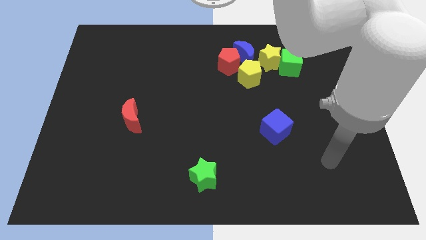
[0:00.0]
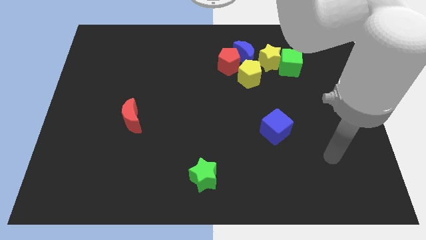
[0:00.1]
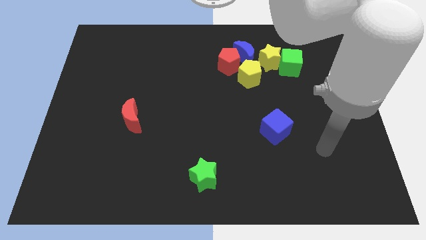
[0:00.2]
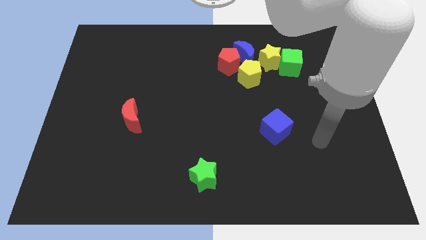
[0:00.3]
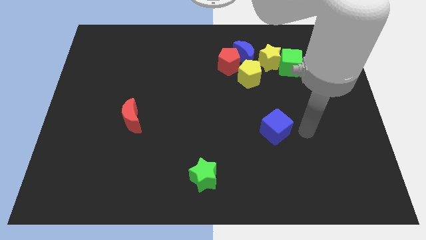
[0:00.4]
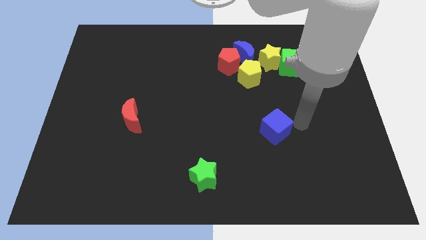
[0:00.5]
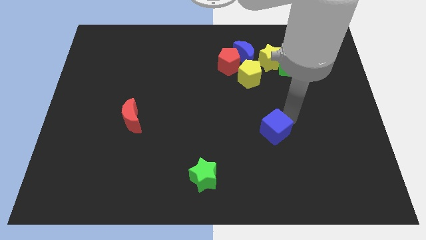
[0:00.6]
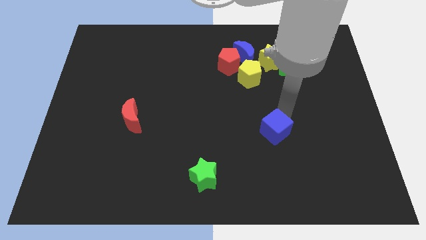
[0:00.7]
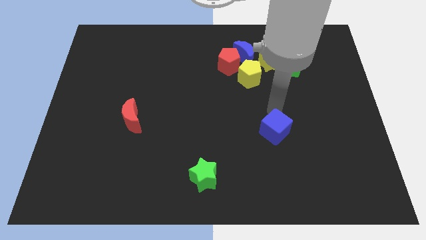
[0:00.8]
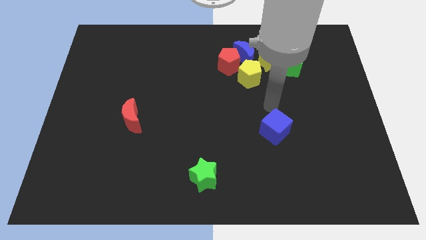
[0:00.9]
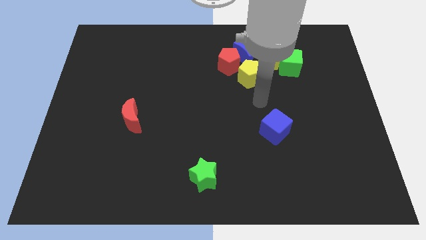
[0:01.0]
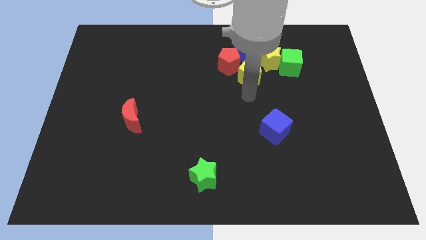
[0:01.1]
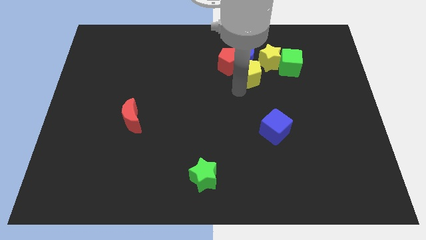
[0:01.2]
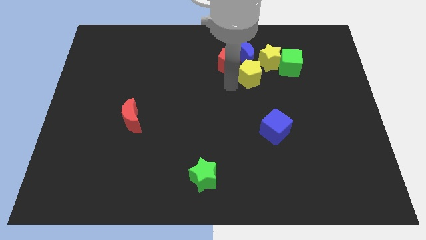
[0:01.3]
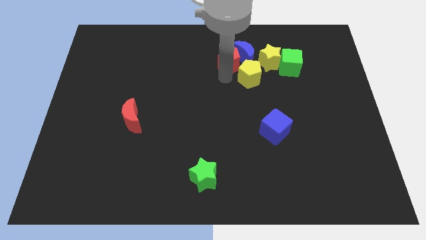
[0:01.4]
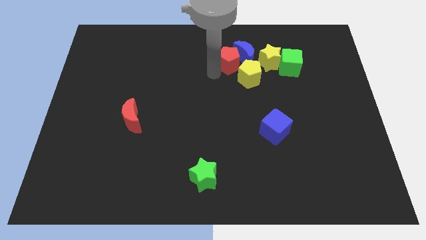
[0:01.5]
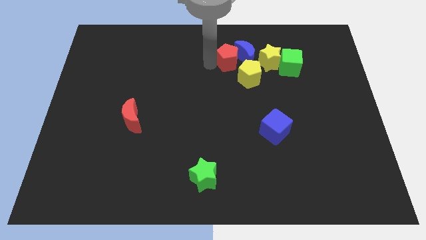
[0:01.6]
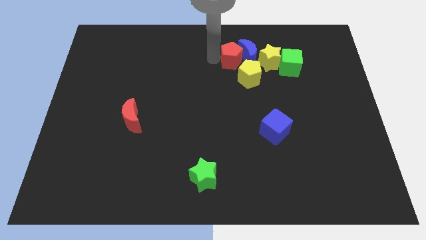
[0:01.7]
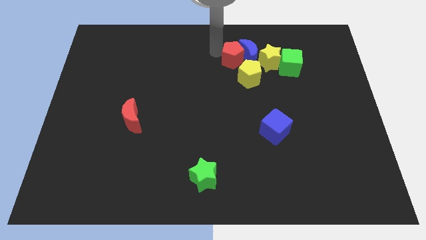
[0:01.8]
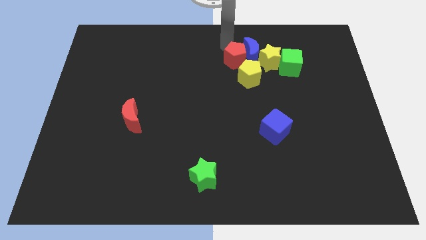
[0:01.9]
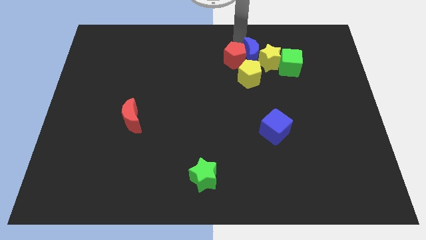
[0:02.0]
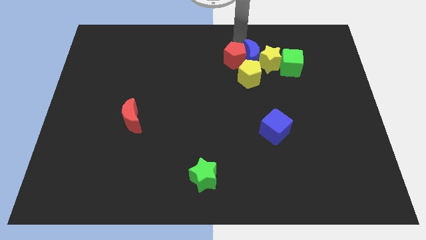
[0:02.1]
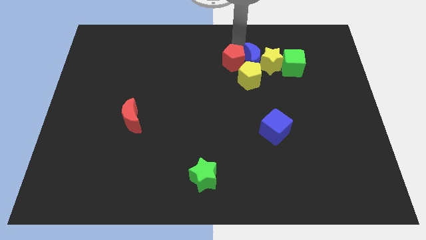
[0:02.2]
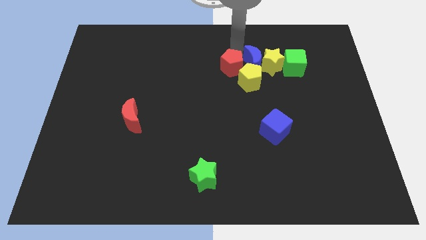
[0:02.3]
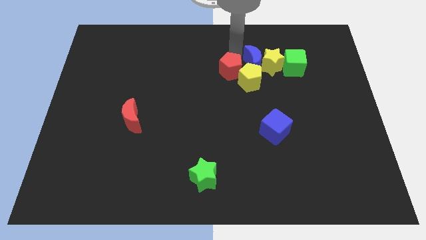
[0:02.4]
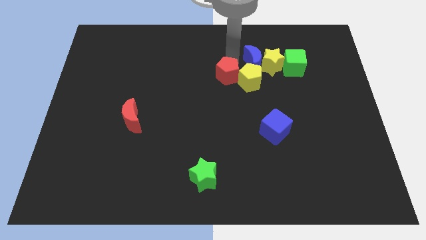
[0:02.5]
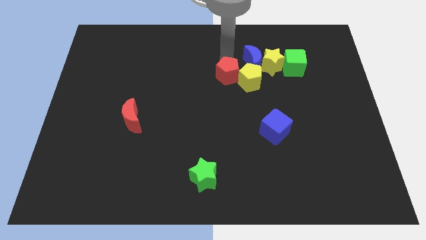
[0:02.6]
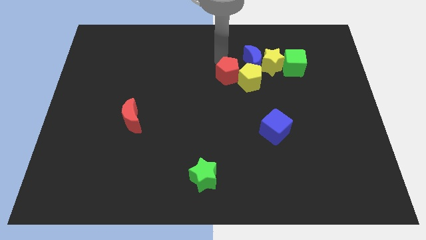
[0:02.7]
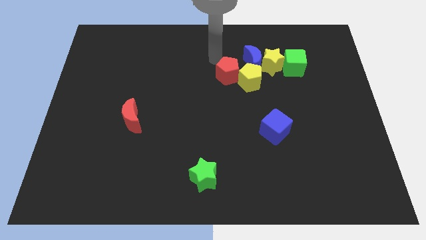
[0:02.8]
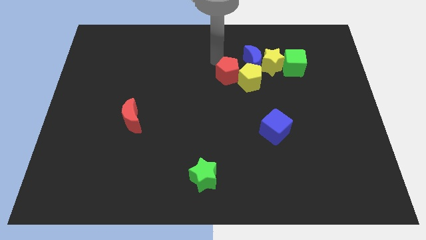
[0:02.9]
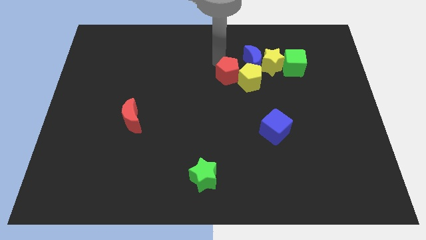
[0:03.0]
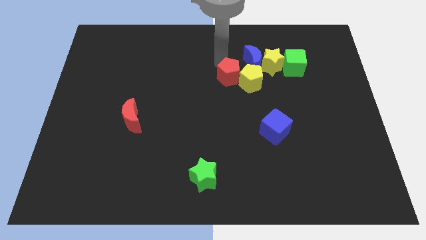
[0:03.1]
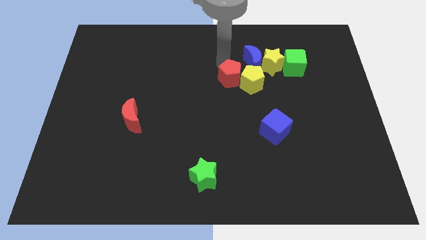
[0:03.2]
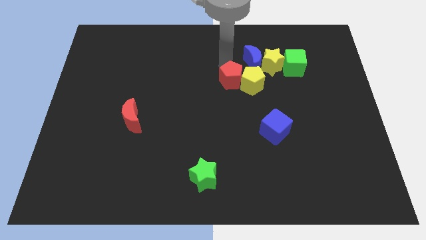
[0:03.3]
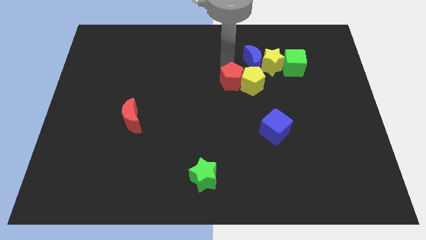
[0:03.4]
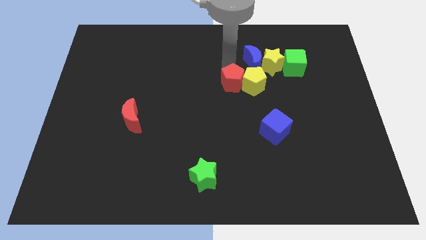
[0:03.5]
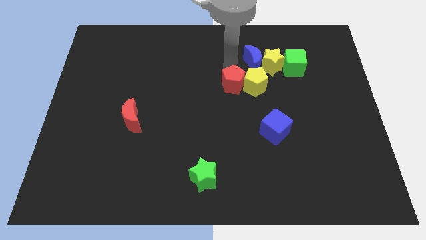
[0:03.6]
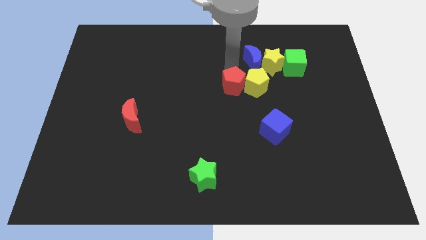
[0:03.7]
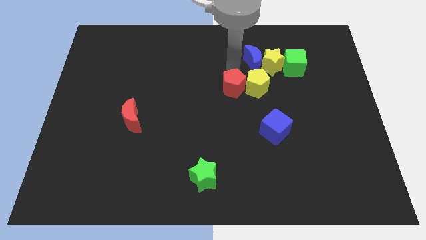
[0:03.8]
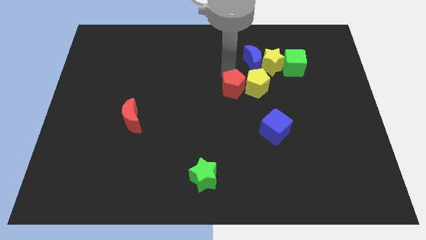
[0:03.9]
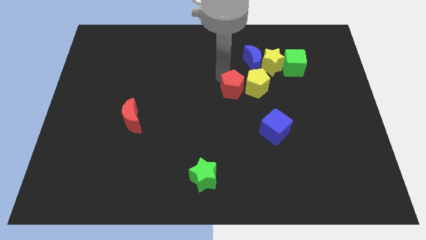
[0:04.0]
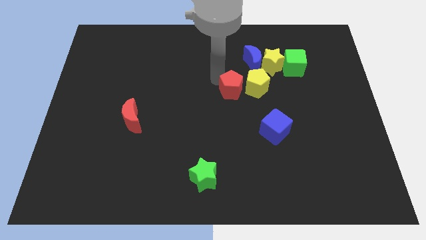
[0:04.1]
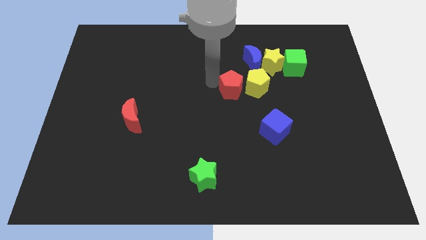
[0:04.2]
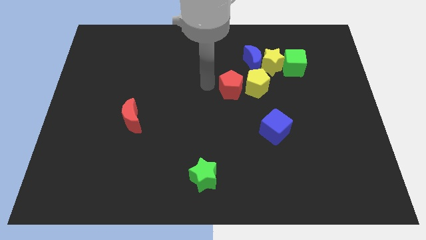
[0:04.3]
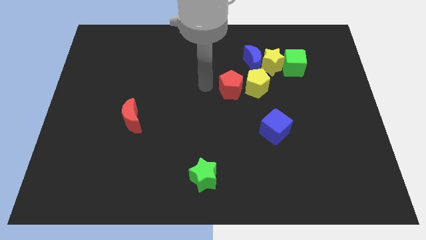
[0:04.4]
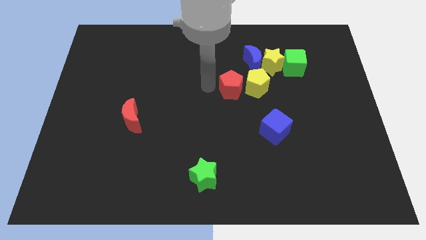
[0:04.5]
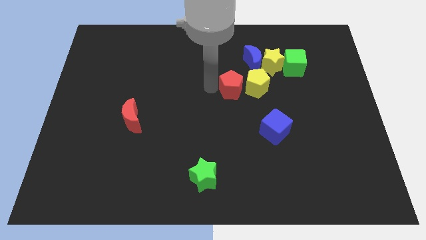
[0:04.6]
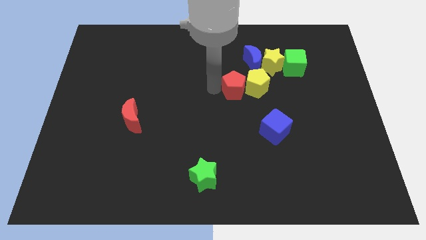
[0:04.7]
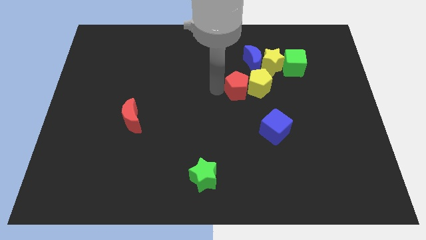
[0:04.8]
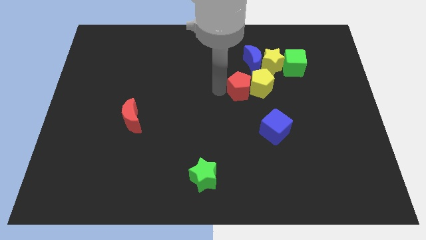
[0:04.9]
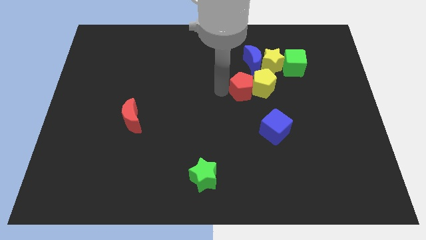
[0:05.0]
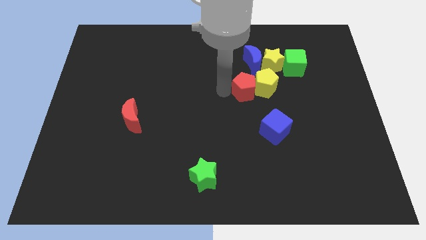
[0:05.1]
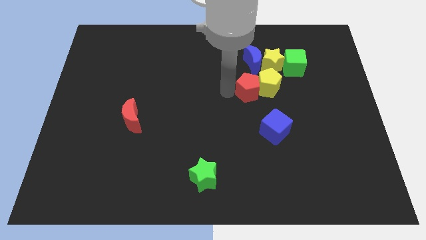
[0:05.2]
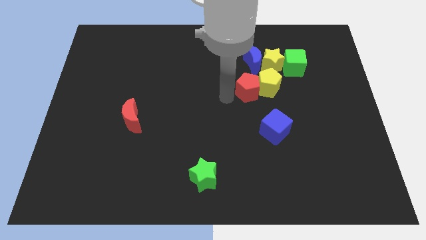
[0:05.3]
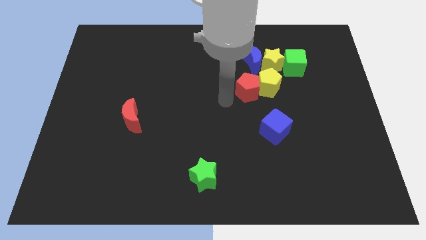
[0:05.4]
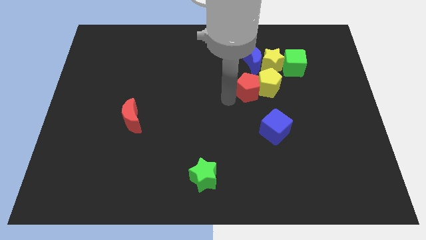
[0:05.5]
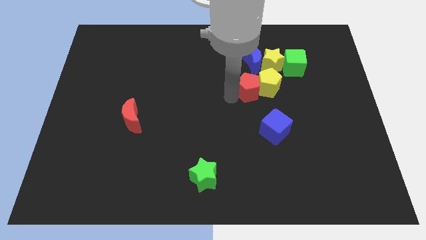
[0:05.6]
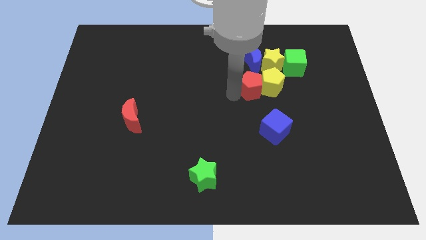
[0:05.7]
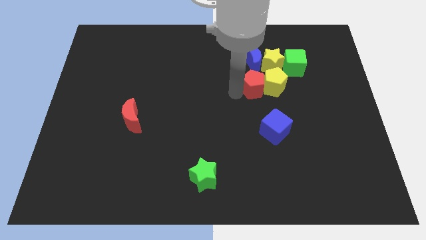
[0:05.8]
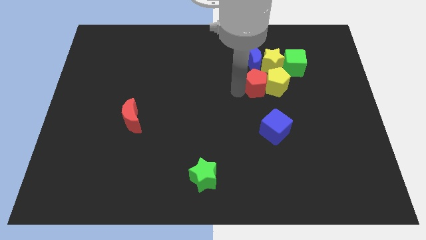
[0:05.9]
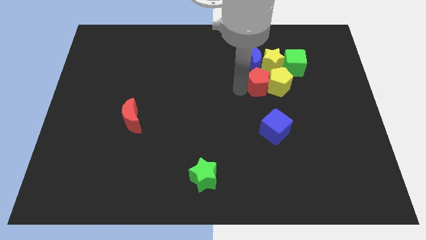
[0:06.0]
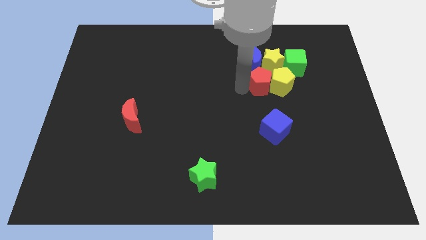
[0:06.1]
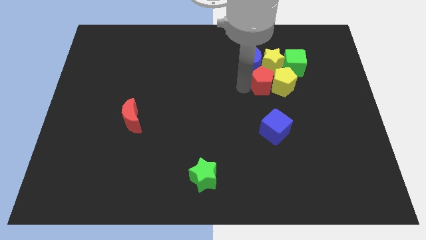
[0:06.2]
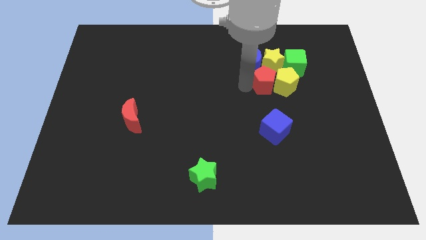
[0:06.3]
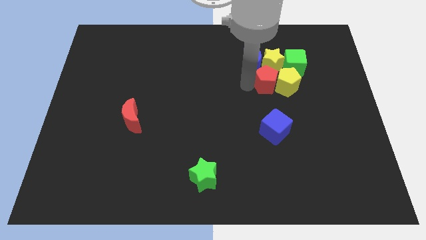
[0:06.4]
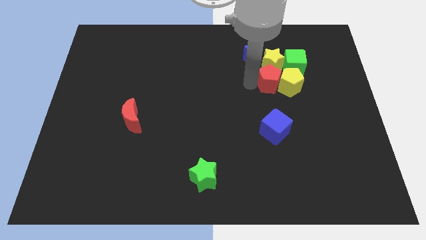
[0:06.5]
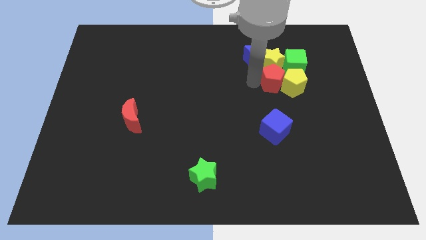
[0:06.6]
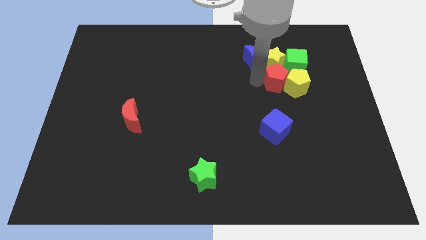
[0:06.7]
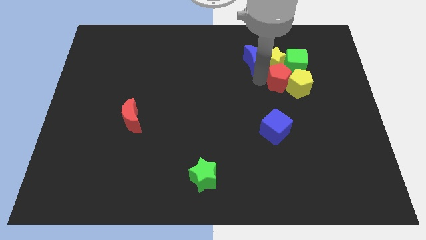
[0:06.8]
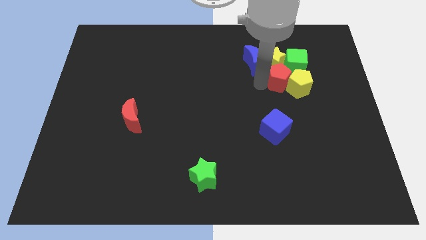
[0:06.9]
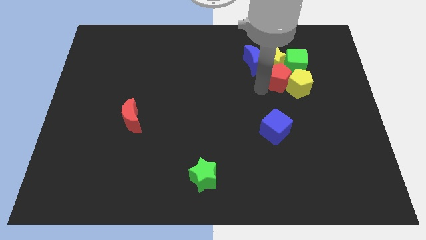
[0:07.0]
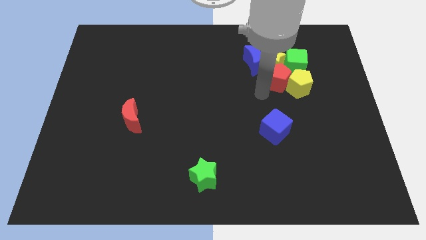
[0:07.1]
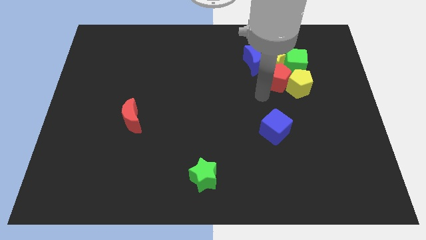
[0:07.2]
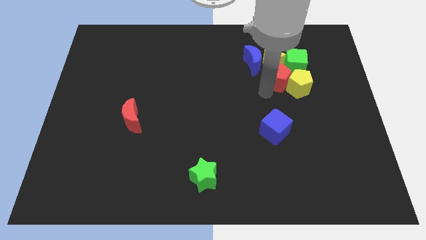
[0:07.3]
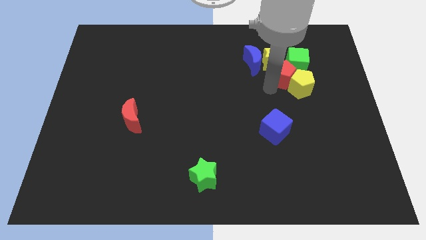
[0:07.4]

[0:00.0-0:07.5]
push the red pentagon to the green cube
